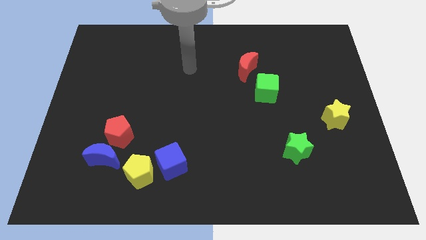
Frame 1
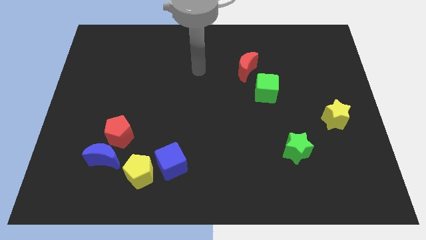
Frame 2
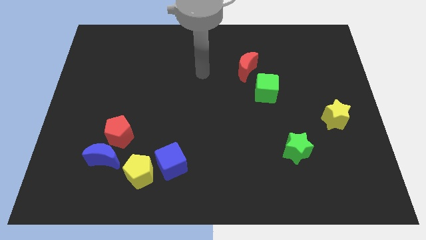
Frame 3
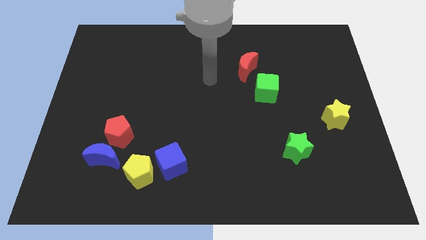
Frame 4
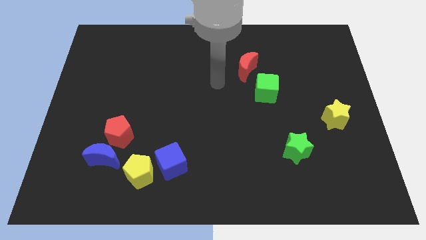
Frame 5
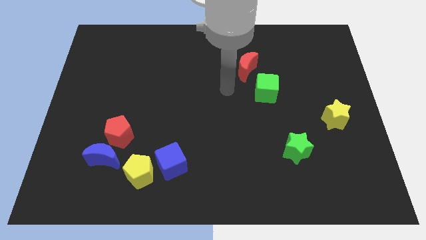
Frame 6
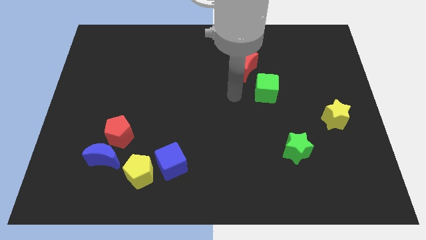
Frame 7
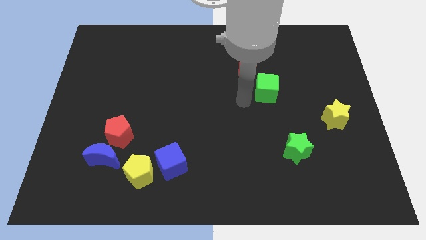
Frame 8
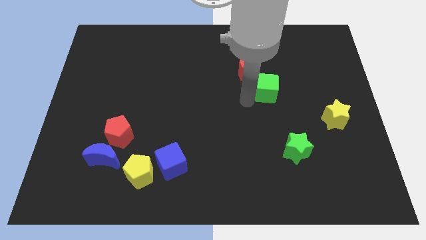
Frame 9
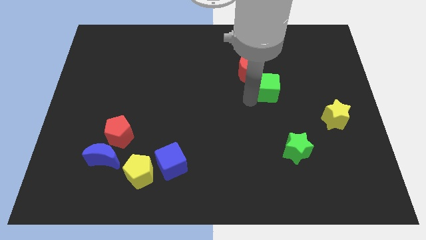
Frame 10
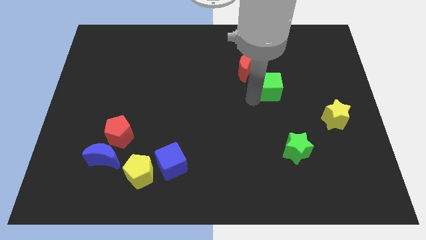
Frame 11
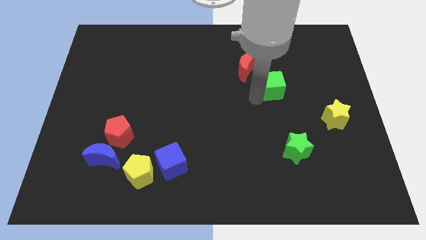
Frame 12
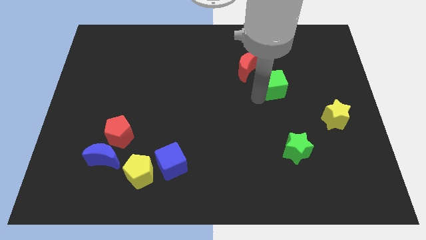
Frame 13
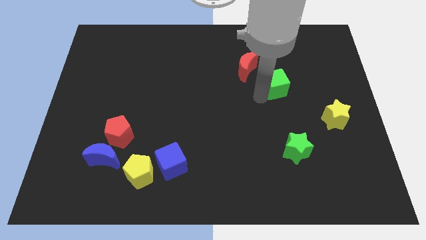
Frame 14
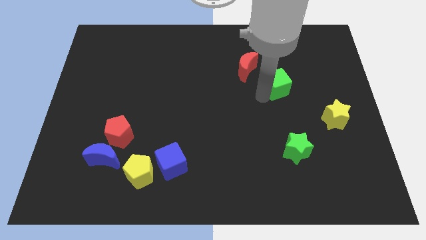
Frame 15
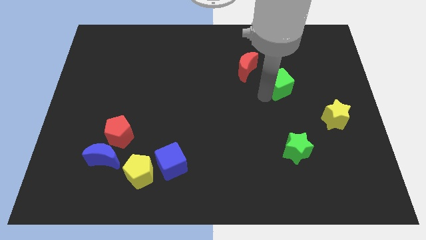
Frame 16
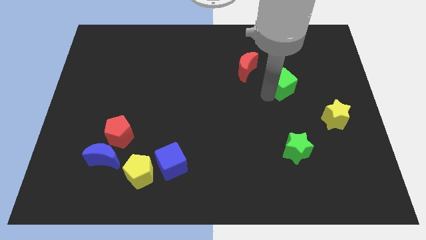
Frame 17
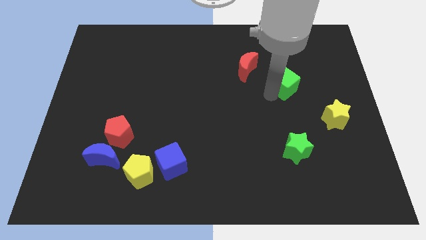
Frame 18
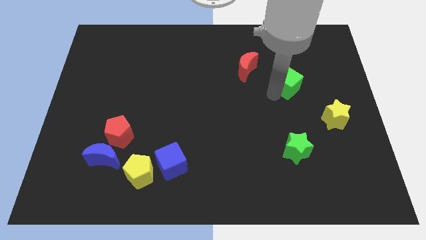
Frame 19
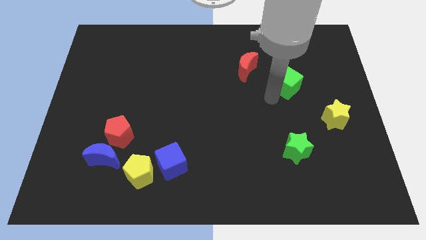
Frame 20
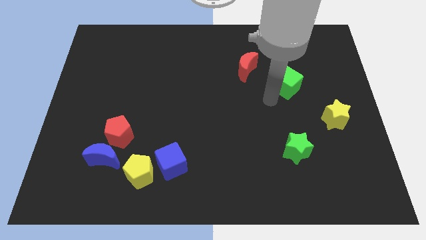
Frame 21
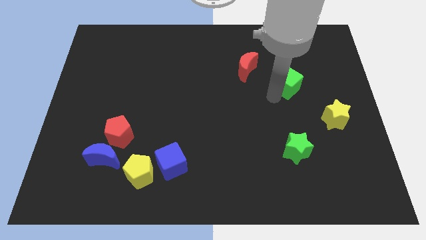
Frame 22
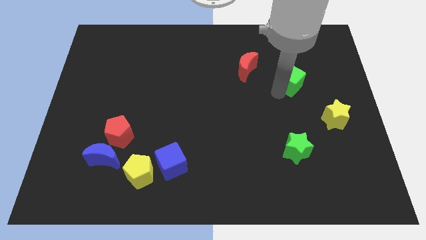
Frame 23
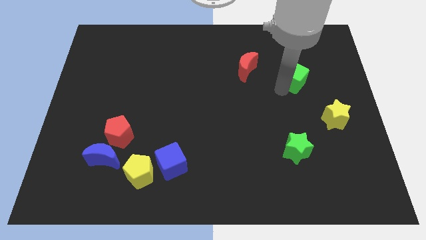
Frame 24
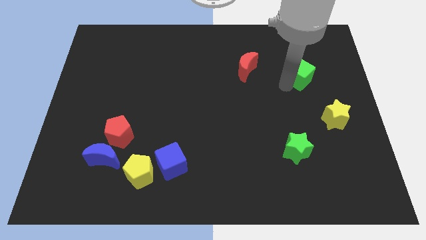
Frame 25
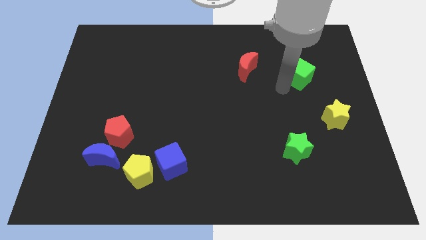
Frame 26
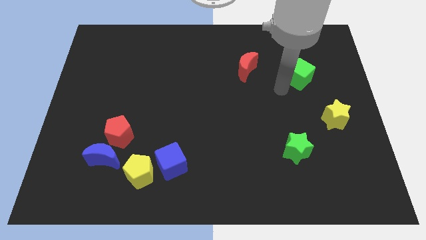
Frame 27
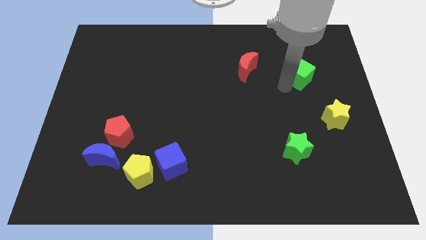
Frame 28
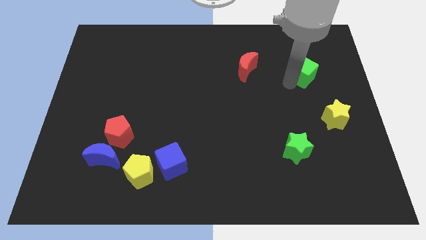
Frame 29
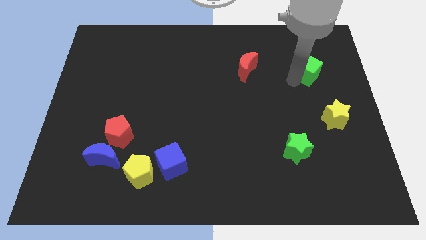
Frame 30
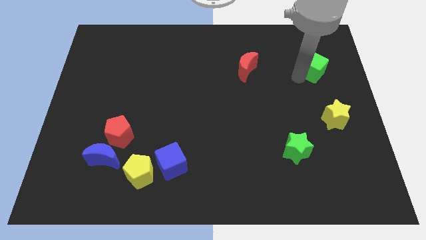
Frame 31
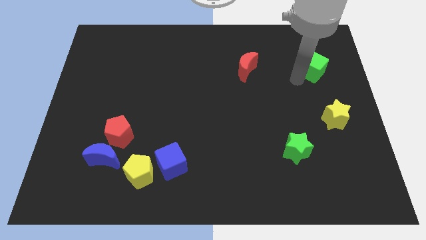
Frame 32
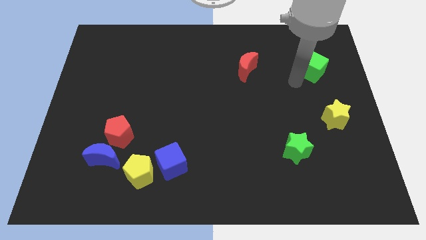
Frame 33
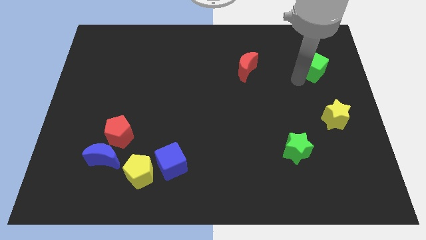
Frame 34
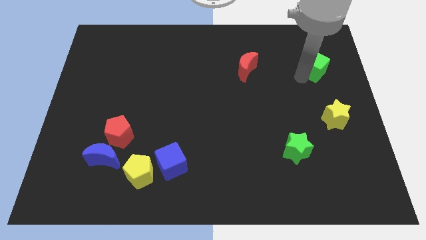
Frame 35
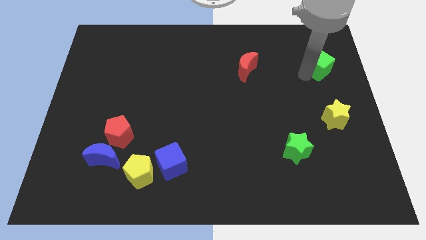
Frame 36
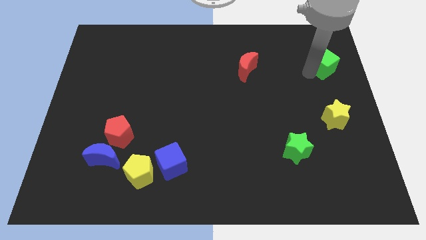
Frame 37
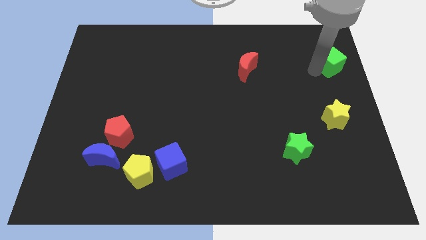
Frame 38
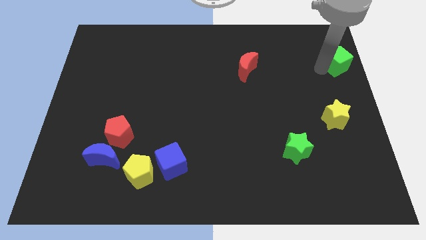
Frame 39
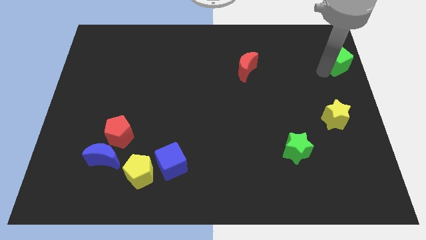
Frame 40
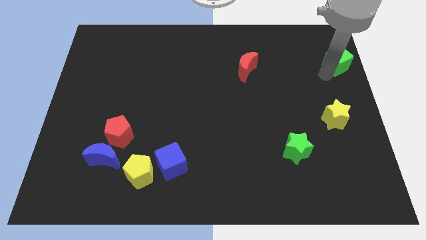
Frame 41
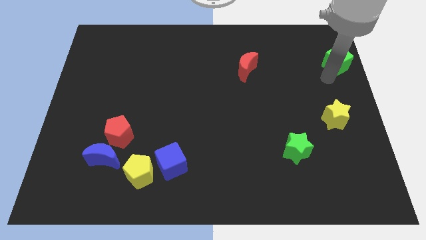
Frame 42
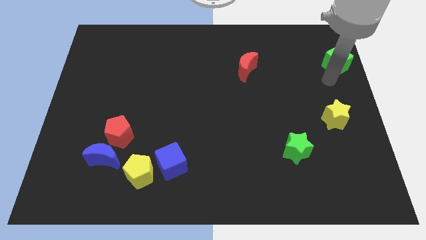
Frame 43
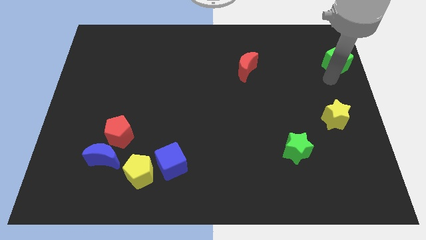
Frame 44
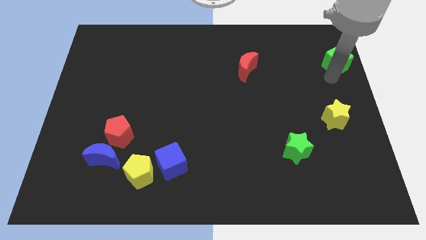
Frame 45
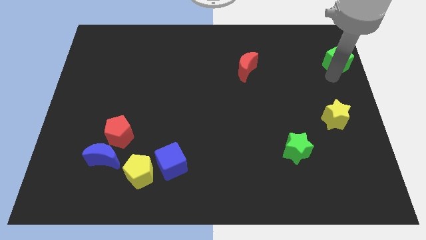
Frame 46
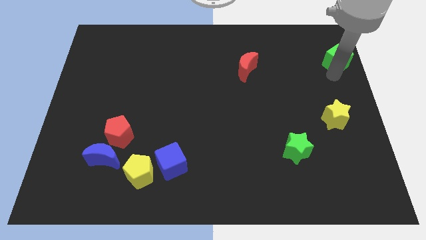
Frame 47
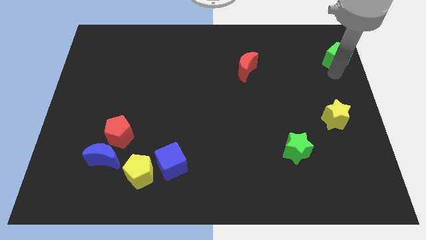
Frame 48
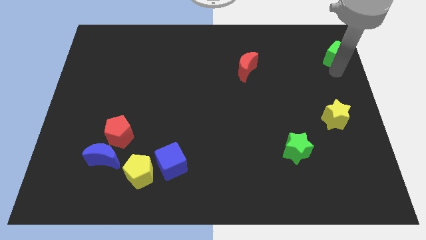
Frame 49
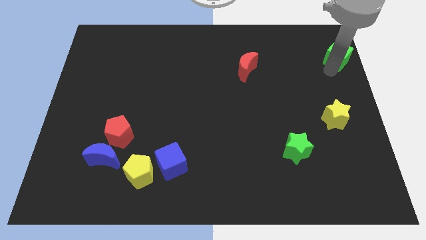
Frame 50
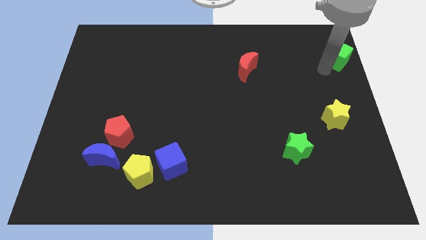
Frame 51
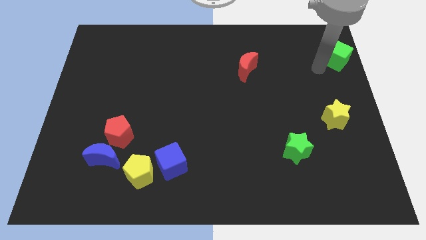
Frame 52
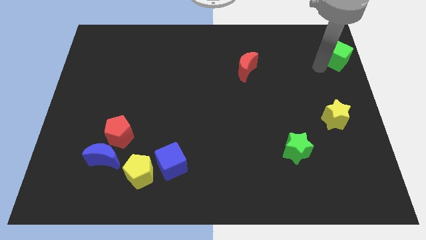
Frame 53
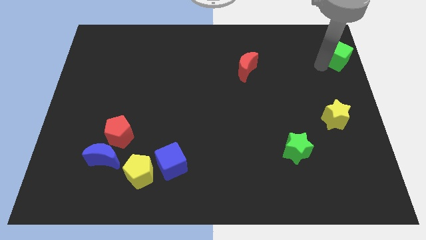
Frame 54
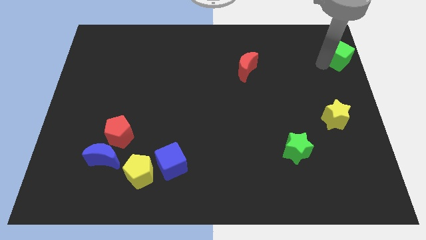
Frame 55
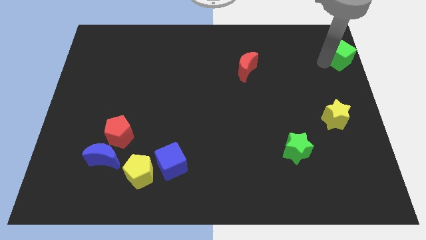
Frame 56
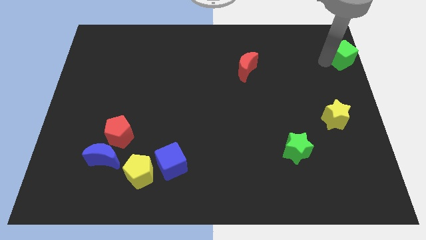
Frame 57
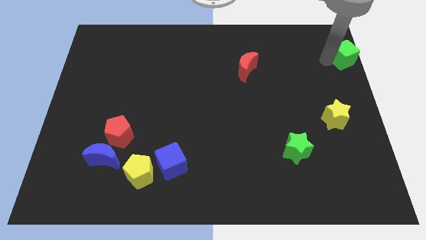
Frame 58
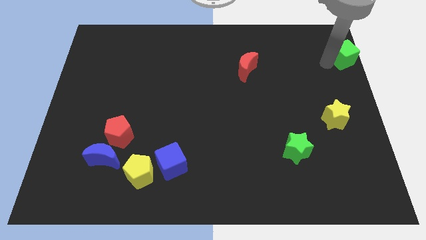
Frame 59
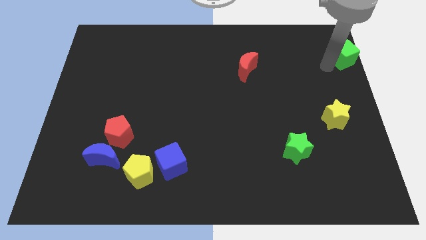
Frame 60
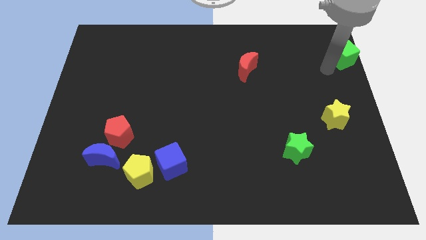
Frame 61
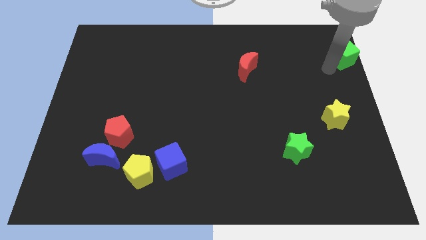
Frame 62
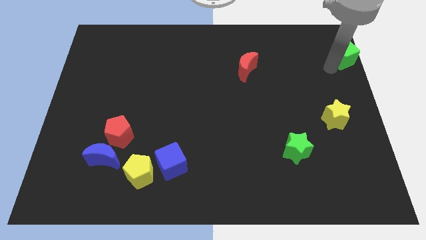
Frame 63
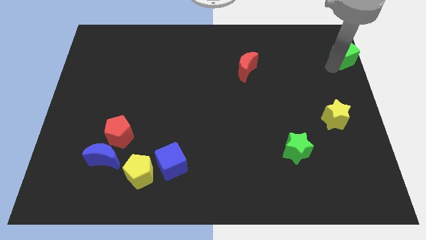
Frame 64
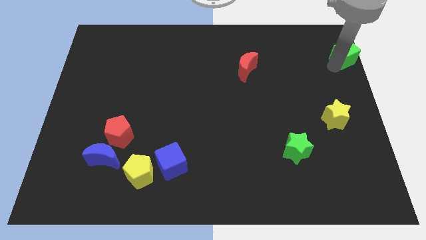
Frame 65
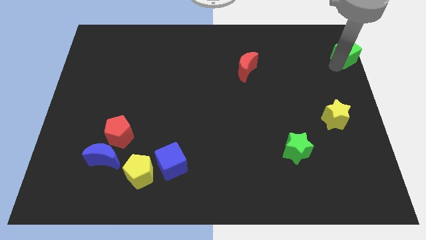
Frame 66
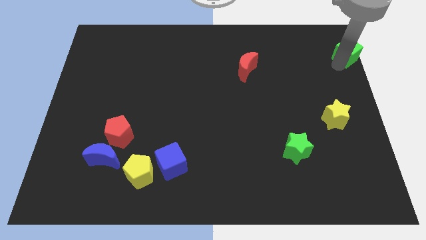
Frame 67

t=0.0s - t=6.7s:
put the green cube to the top right
